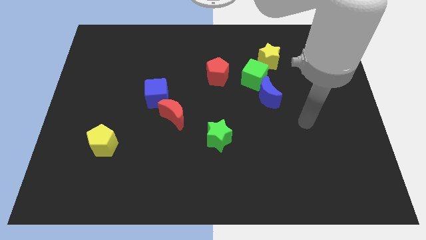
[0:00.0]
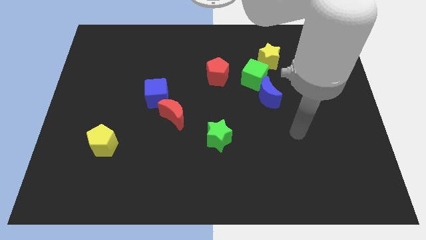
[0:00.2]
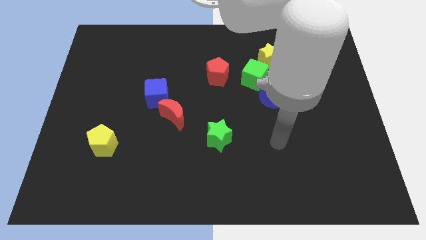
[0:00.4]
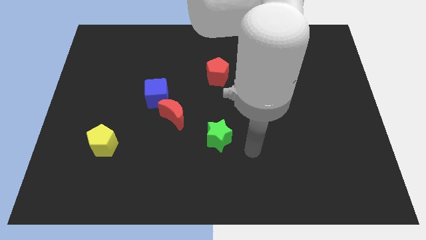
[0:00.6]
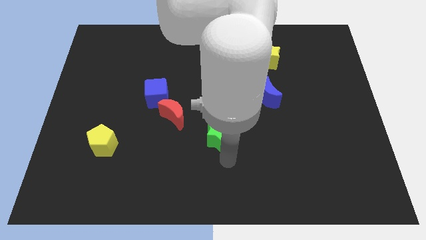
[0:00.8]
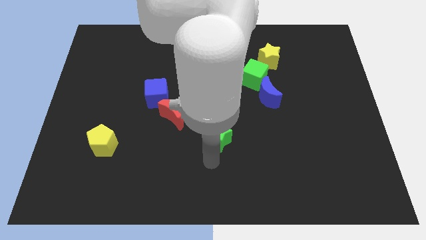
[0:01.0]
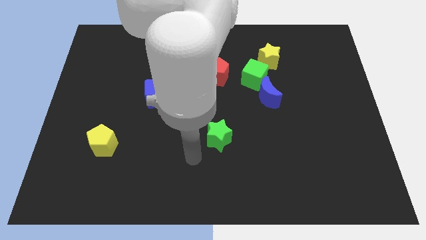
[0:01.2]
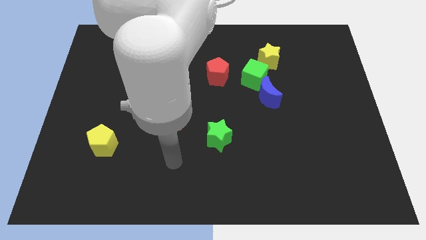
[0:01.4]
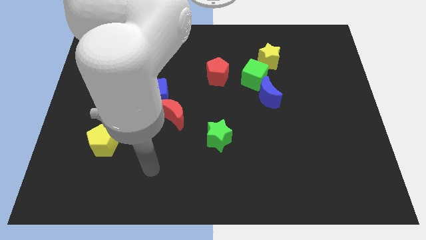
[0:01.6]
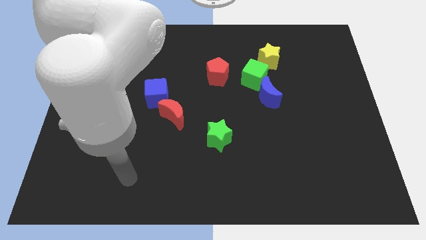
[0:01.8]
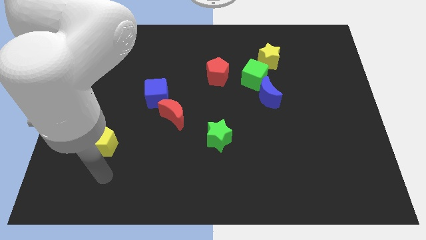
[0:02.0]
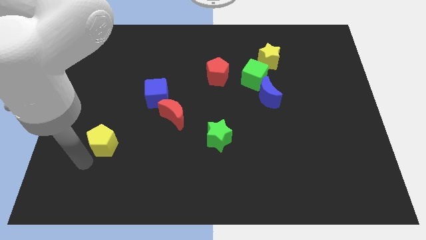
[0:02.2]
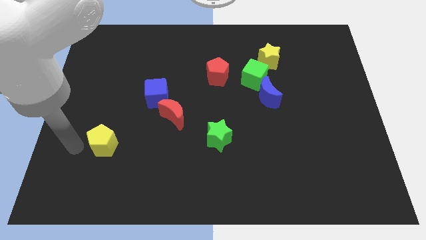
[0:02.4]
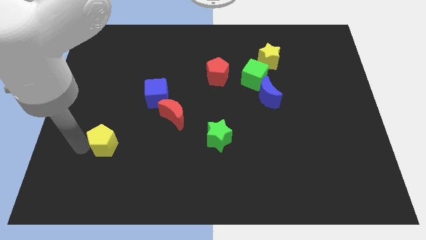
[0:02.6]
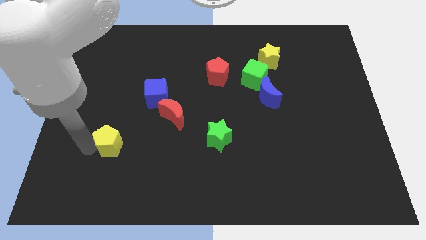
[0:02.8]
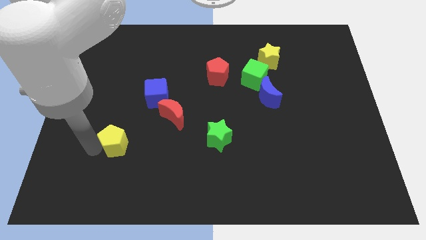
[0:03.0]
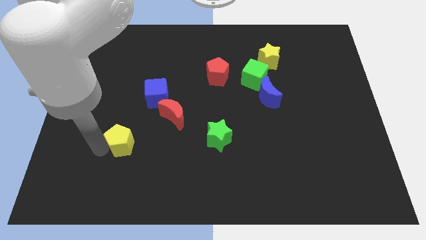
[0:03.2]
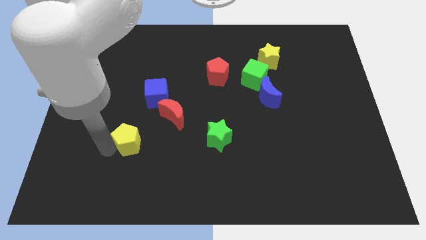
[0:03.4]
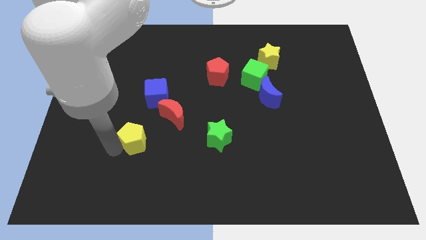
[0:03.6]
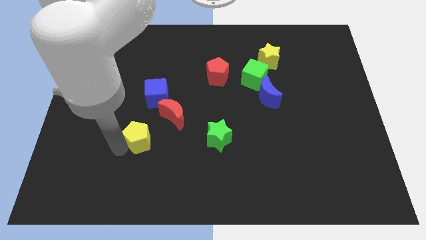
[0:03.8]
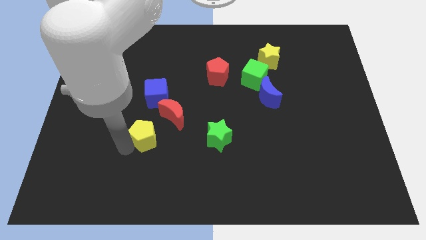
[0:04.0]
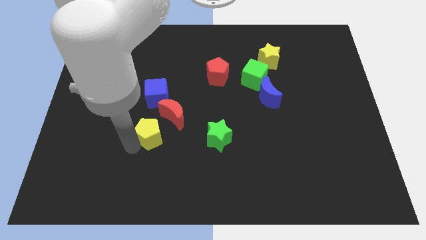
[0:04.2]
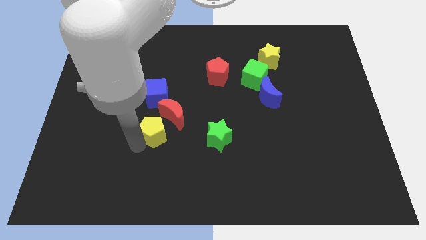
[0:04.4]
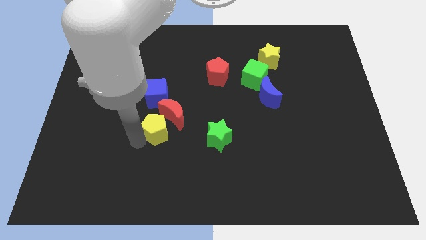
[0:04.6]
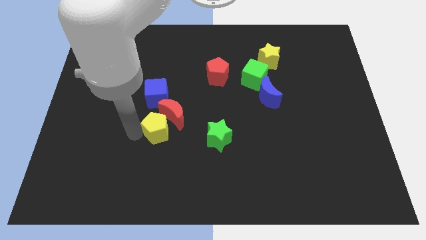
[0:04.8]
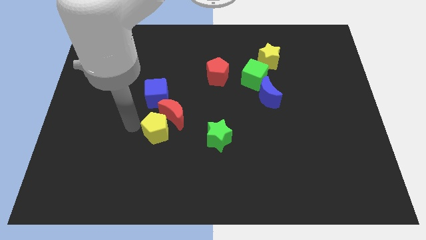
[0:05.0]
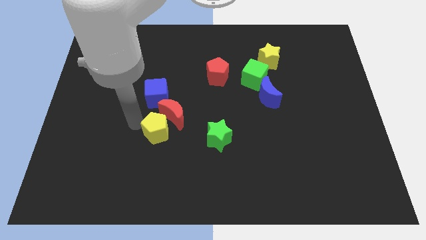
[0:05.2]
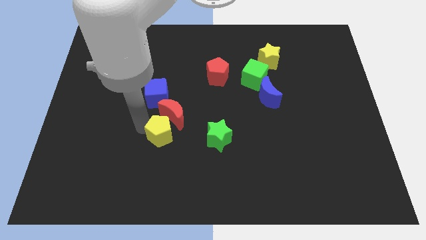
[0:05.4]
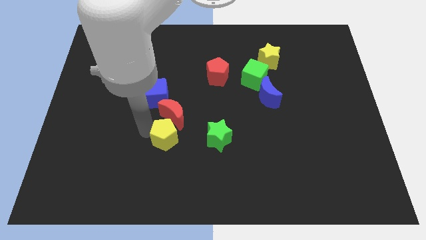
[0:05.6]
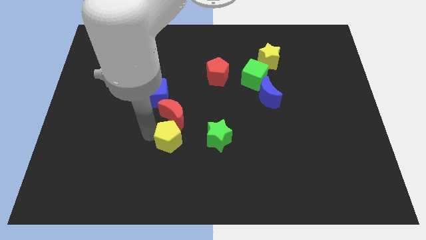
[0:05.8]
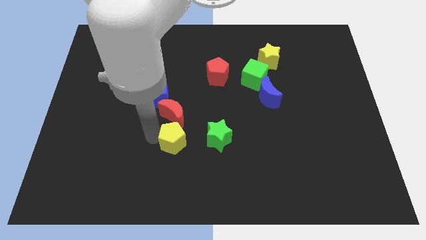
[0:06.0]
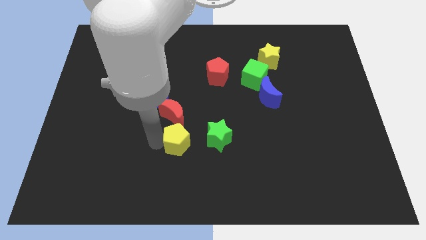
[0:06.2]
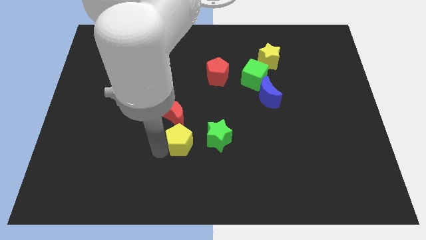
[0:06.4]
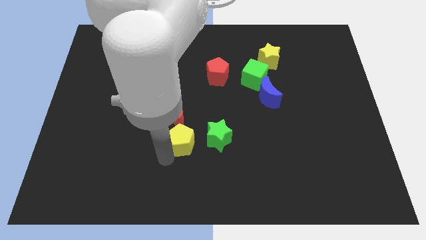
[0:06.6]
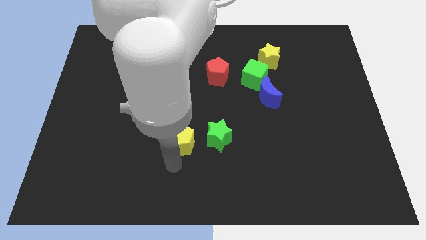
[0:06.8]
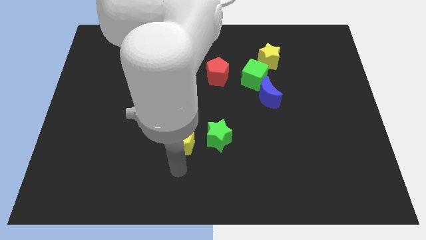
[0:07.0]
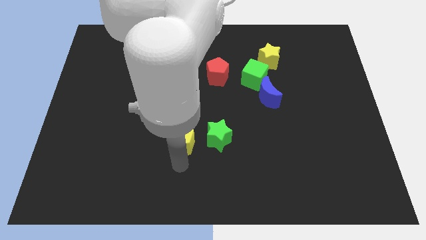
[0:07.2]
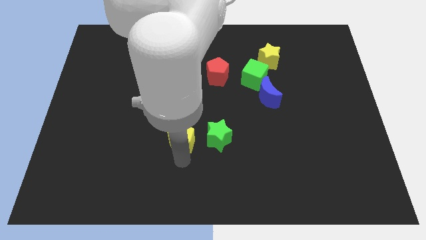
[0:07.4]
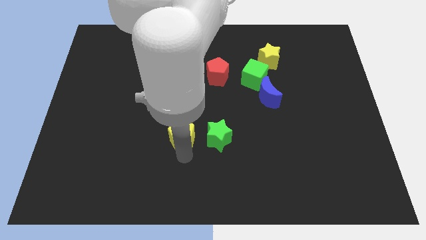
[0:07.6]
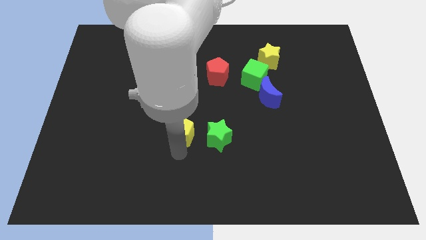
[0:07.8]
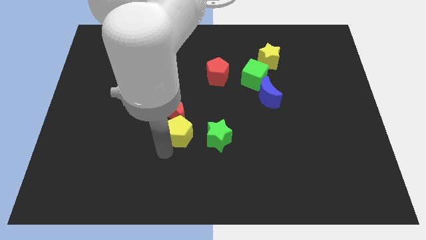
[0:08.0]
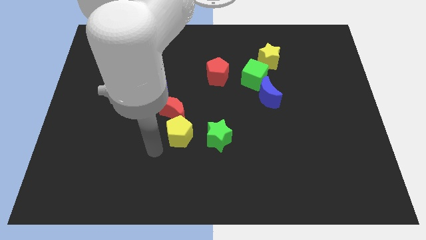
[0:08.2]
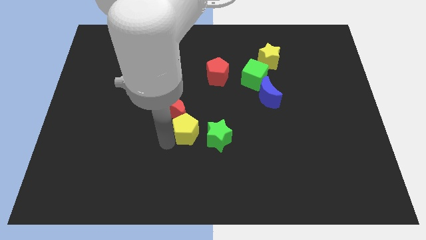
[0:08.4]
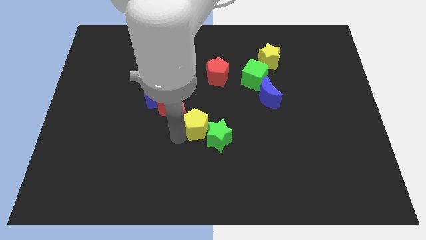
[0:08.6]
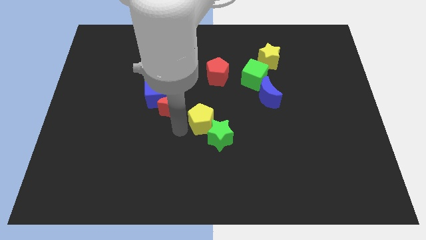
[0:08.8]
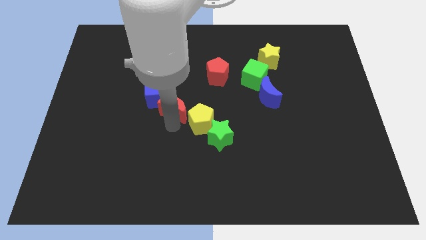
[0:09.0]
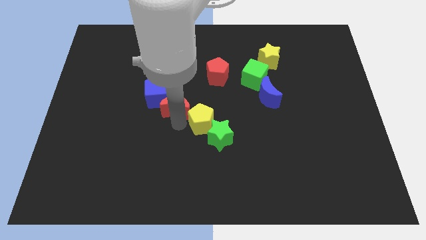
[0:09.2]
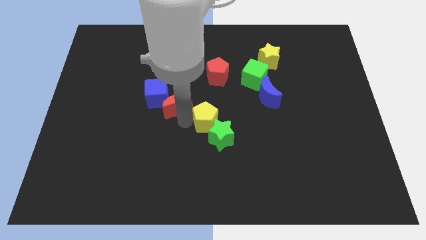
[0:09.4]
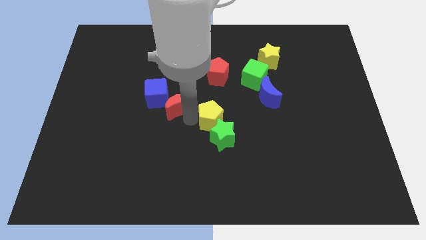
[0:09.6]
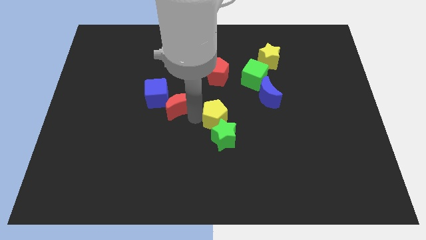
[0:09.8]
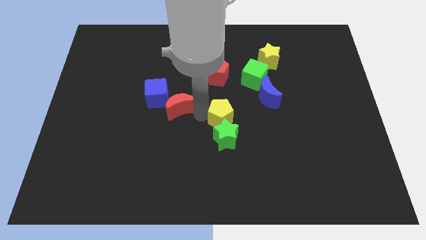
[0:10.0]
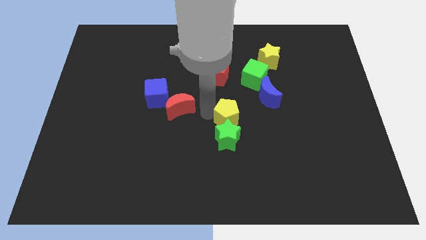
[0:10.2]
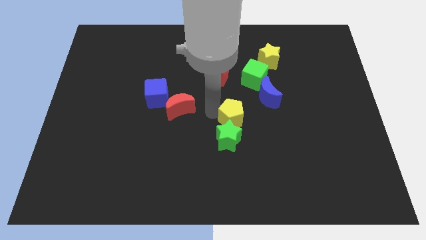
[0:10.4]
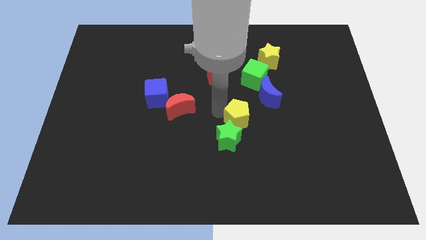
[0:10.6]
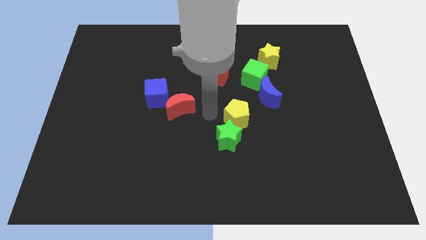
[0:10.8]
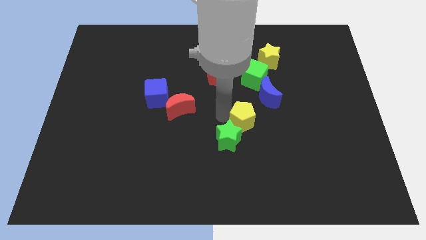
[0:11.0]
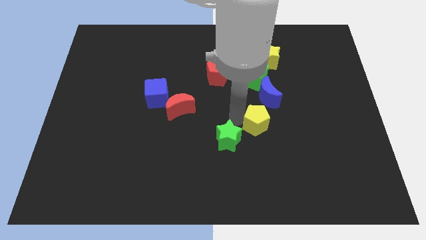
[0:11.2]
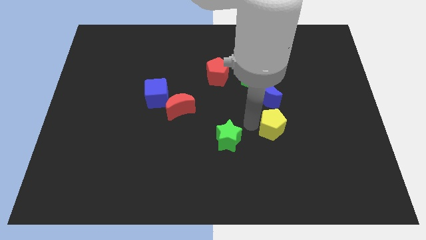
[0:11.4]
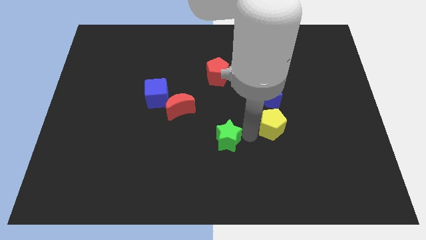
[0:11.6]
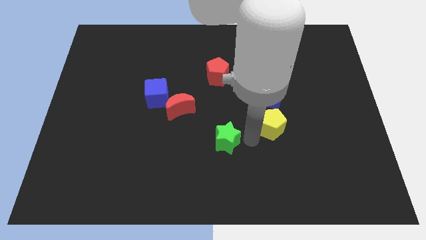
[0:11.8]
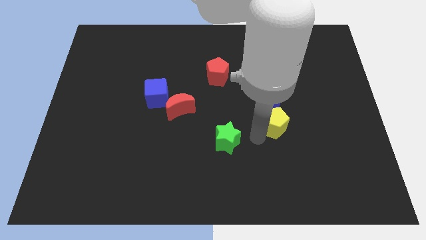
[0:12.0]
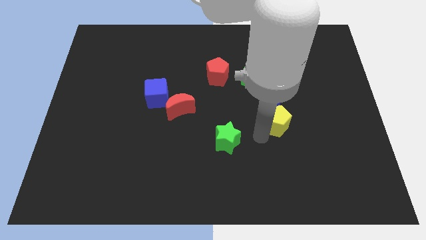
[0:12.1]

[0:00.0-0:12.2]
push the yellow pentagon diagonally down and to the right of the blue moon

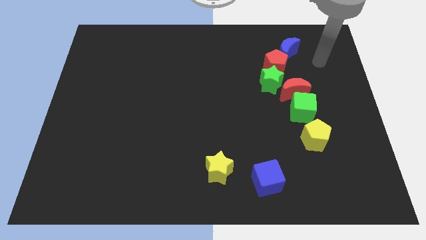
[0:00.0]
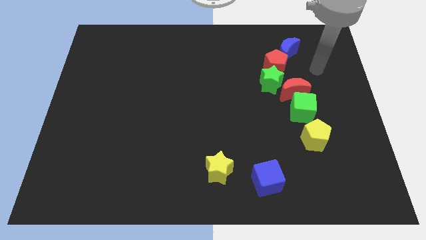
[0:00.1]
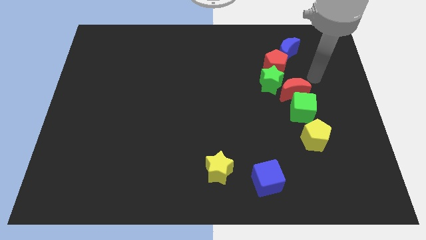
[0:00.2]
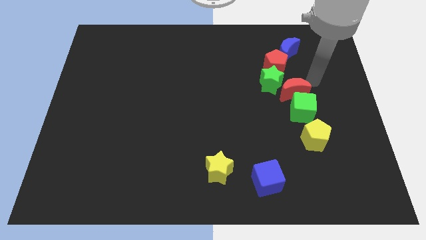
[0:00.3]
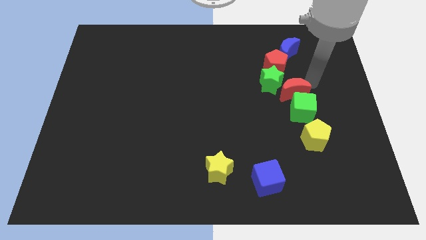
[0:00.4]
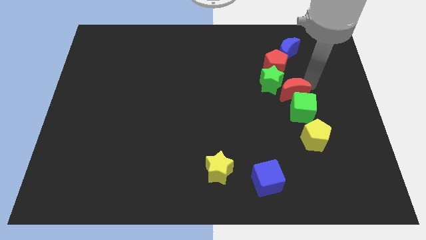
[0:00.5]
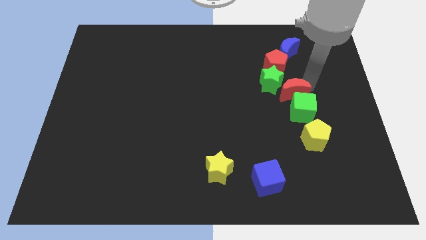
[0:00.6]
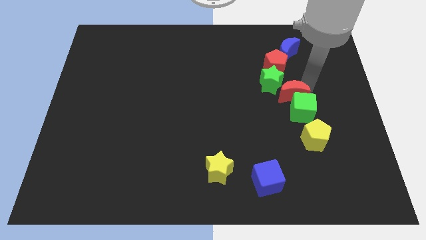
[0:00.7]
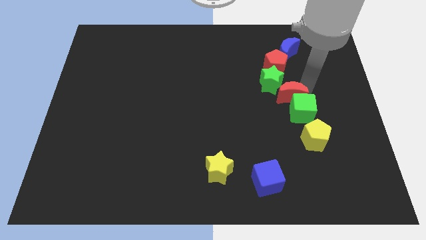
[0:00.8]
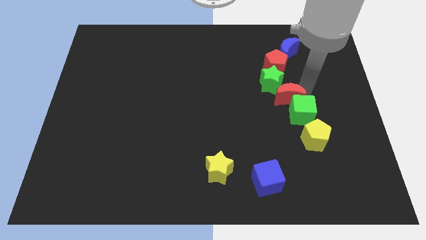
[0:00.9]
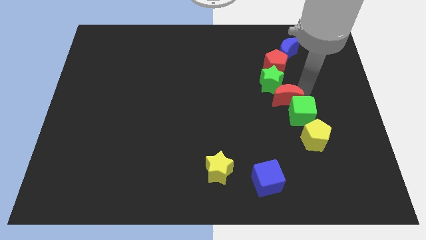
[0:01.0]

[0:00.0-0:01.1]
slide the red moon to the left of the green cube
